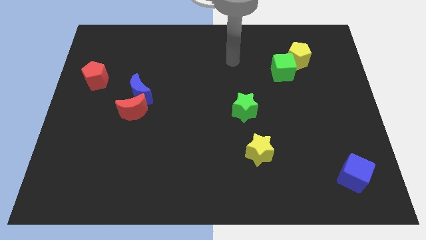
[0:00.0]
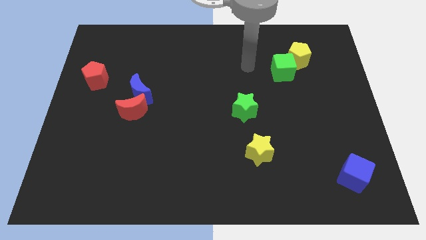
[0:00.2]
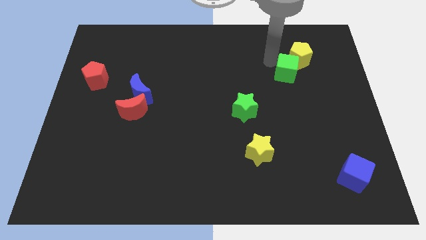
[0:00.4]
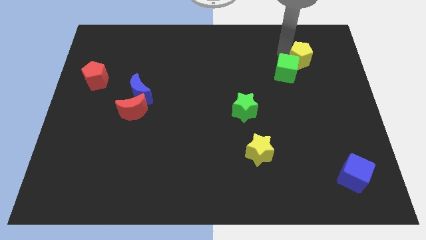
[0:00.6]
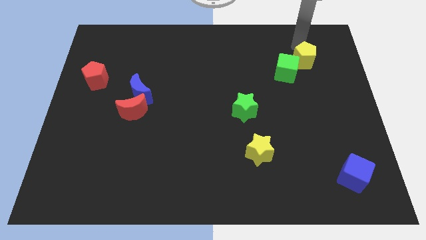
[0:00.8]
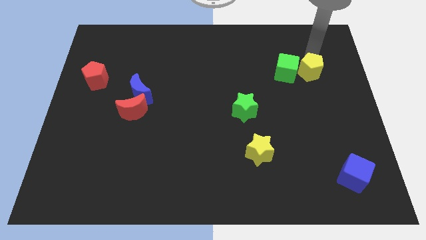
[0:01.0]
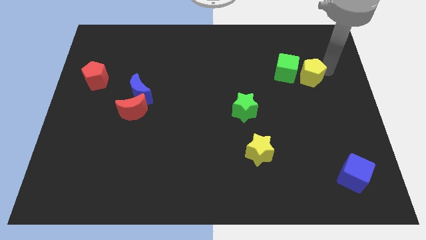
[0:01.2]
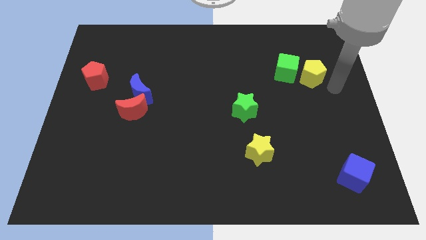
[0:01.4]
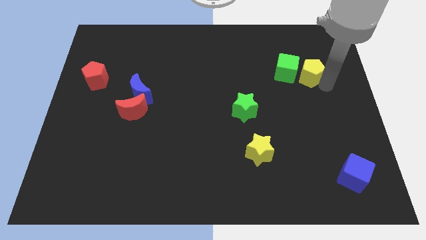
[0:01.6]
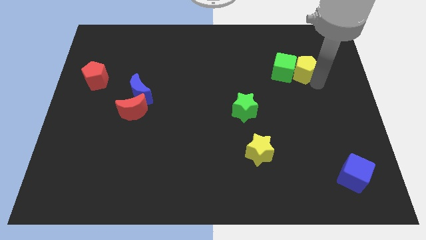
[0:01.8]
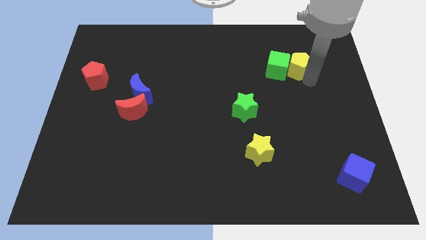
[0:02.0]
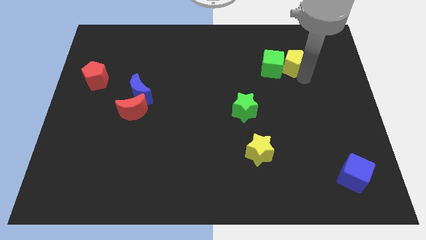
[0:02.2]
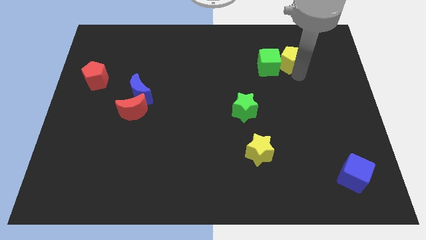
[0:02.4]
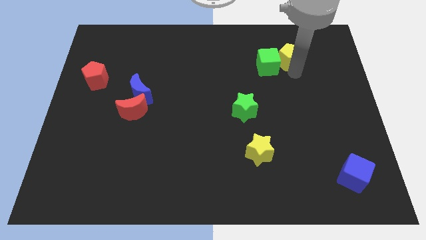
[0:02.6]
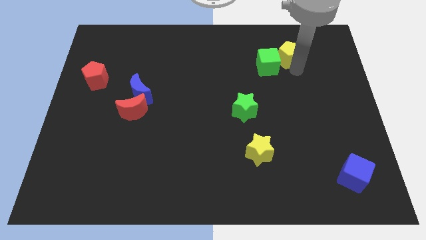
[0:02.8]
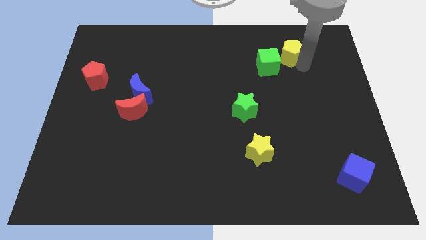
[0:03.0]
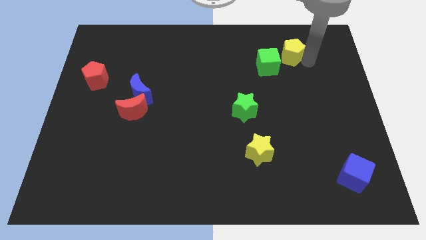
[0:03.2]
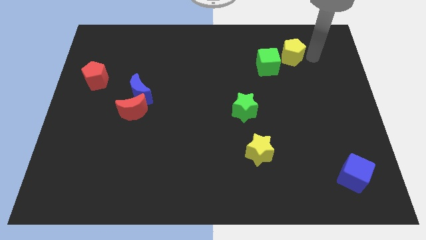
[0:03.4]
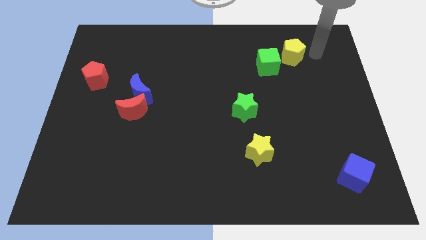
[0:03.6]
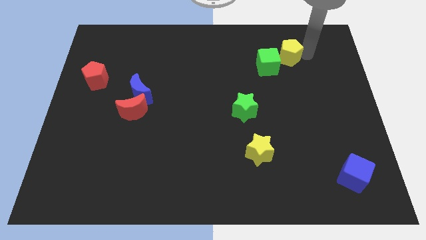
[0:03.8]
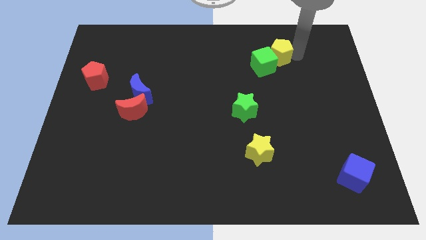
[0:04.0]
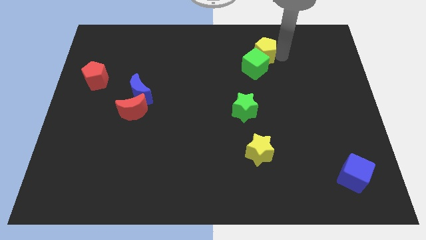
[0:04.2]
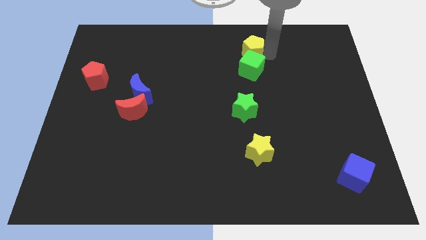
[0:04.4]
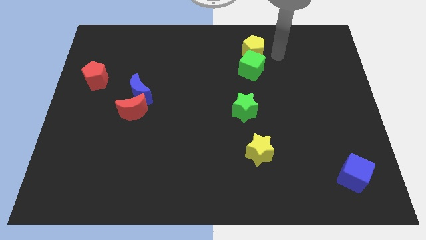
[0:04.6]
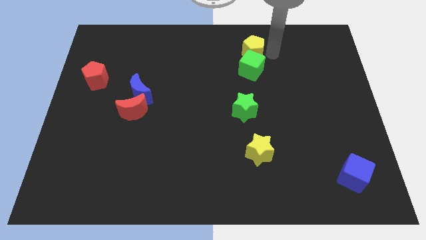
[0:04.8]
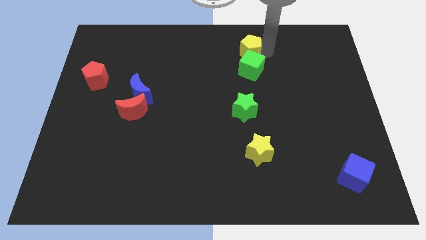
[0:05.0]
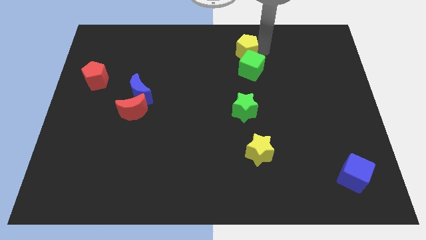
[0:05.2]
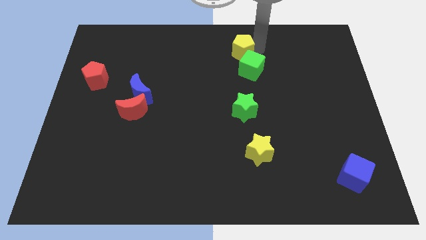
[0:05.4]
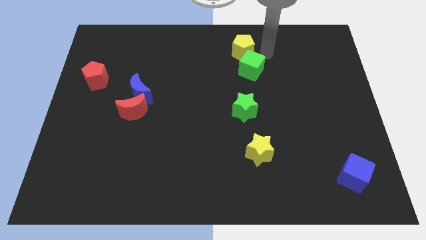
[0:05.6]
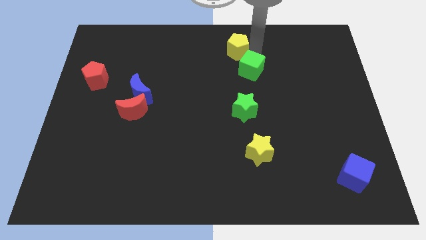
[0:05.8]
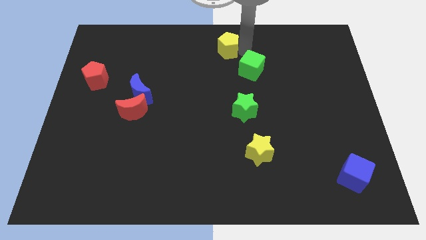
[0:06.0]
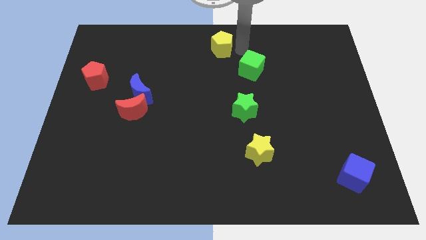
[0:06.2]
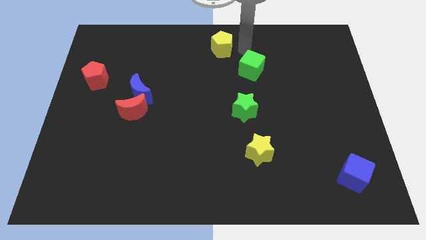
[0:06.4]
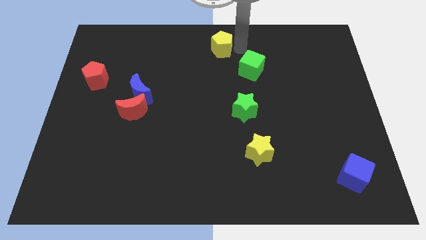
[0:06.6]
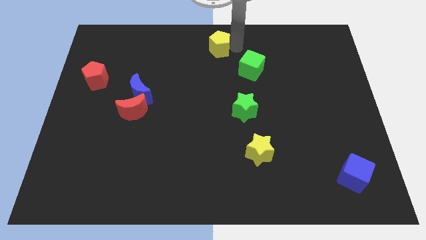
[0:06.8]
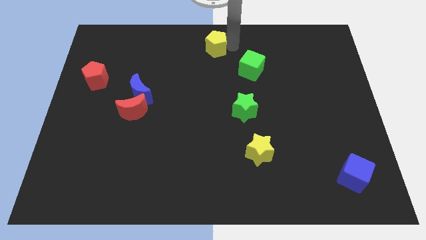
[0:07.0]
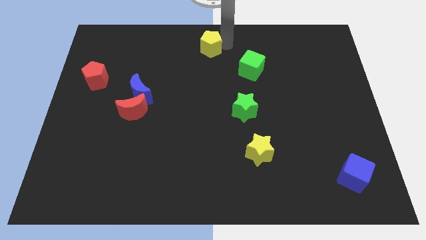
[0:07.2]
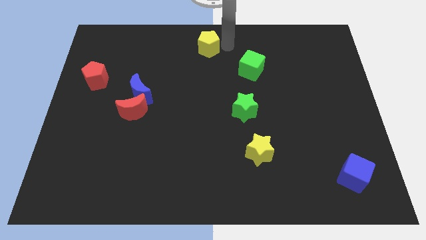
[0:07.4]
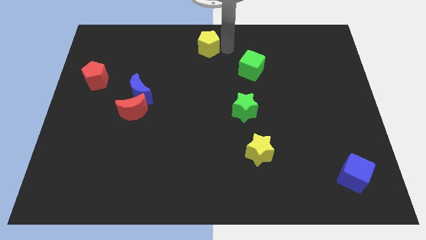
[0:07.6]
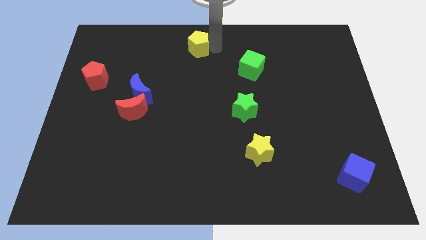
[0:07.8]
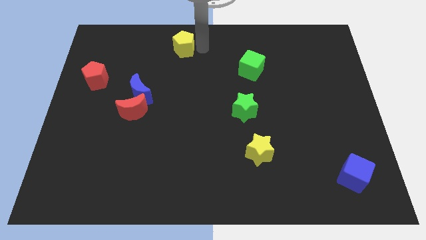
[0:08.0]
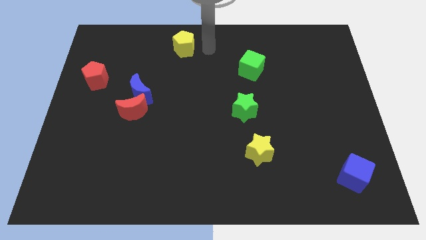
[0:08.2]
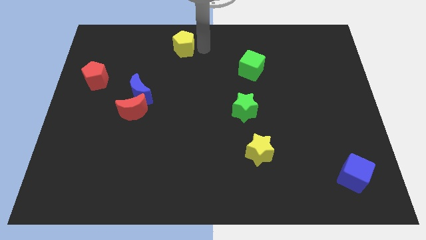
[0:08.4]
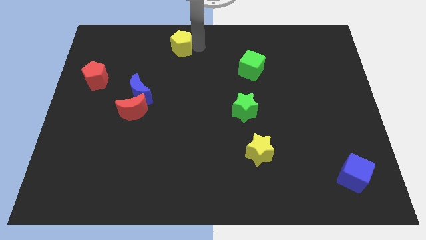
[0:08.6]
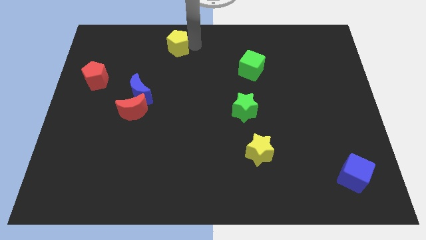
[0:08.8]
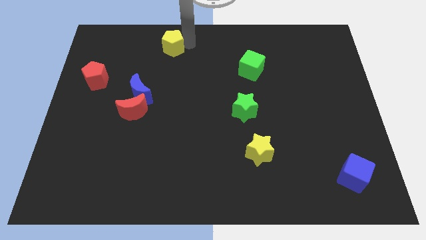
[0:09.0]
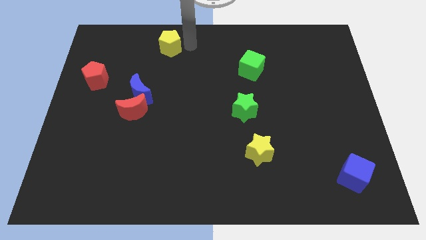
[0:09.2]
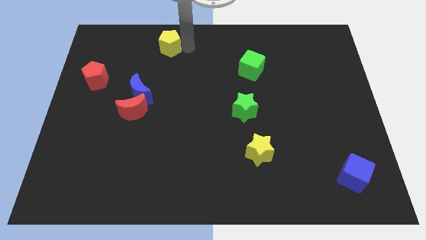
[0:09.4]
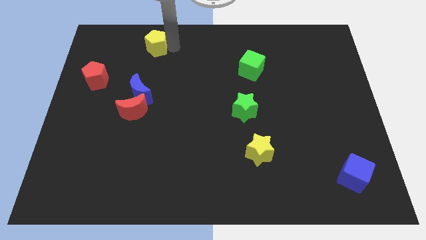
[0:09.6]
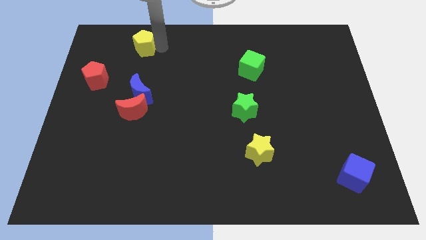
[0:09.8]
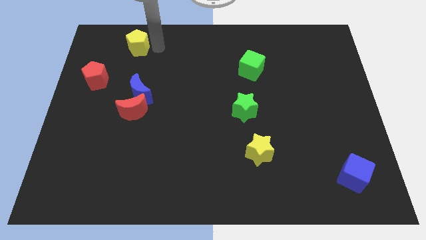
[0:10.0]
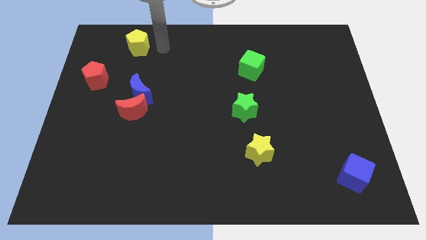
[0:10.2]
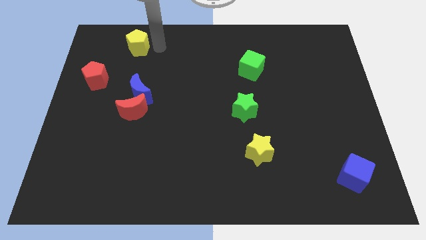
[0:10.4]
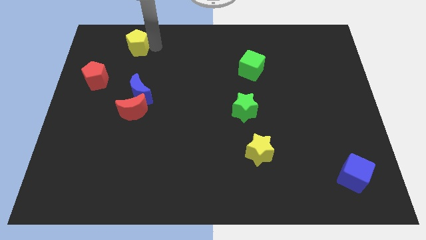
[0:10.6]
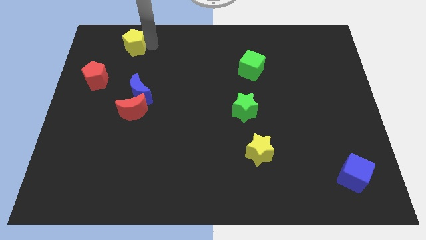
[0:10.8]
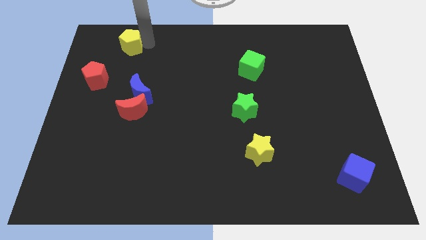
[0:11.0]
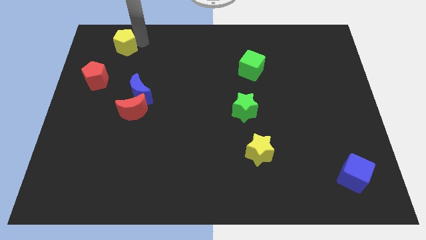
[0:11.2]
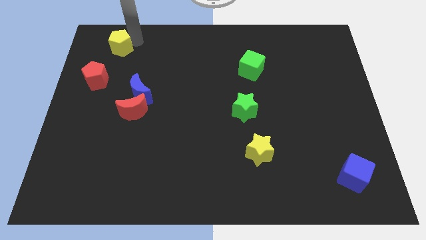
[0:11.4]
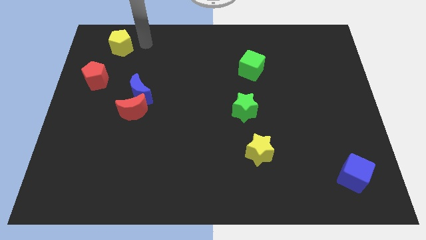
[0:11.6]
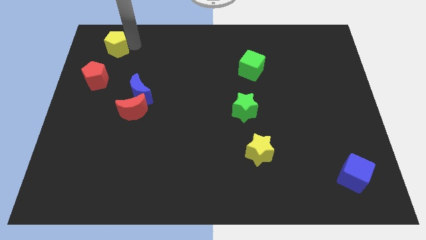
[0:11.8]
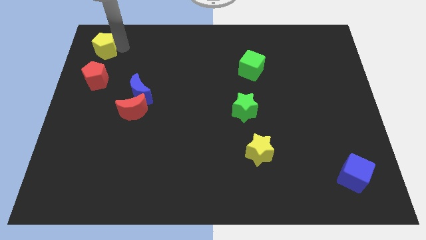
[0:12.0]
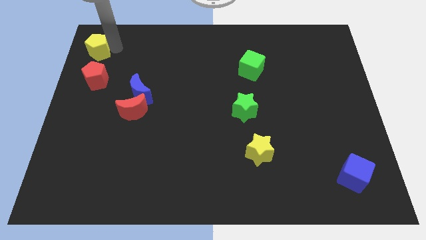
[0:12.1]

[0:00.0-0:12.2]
slide the yellow pentagon to the top left of the board
